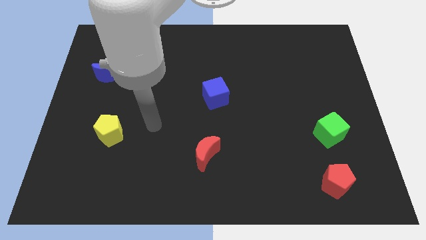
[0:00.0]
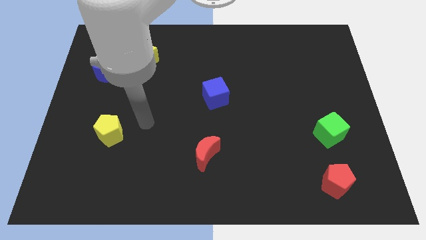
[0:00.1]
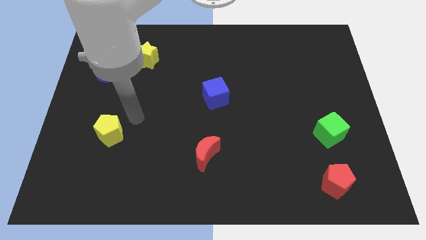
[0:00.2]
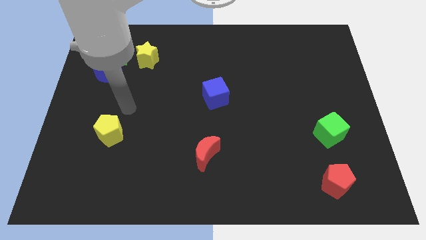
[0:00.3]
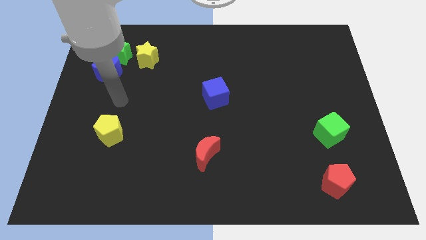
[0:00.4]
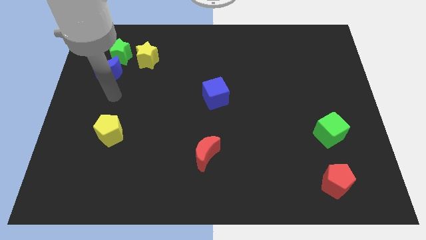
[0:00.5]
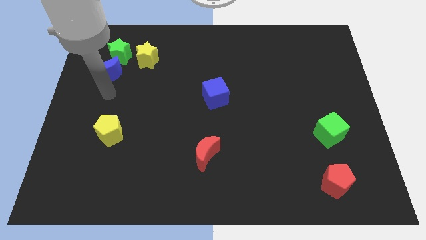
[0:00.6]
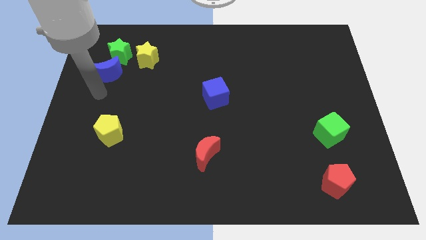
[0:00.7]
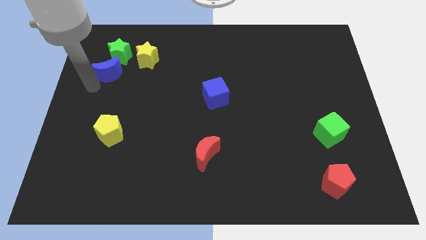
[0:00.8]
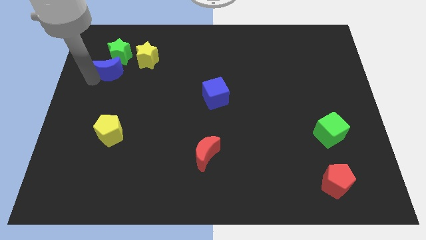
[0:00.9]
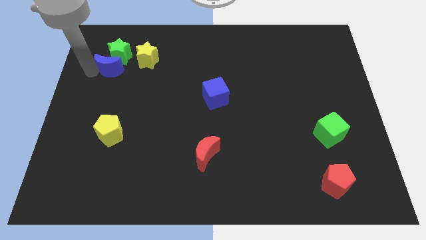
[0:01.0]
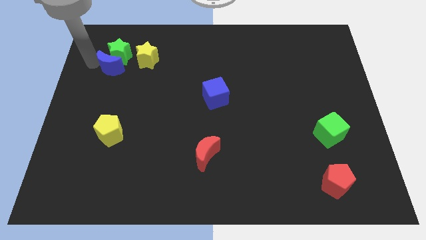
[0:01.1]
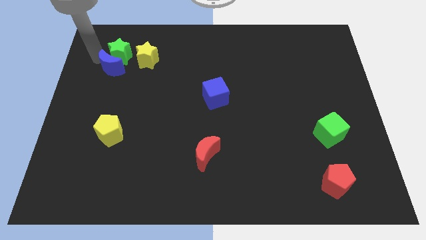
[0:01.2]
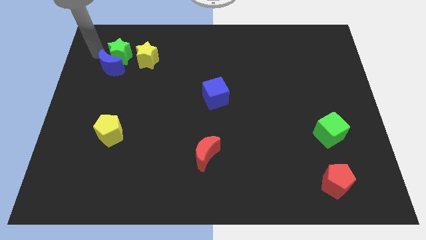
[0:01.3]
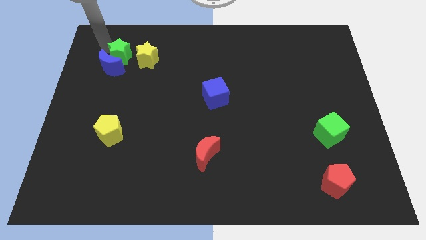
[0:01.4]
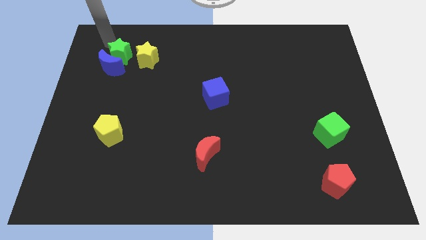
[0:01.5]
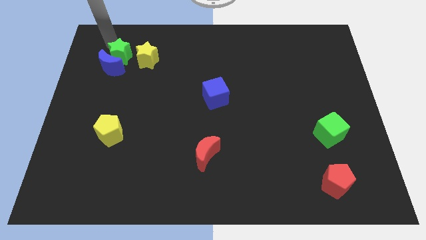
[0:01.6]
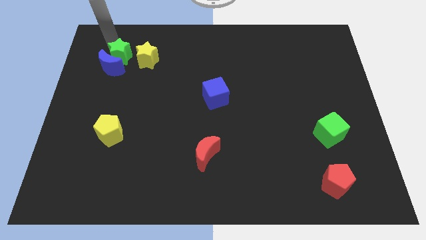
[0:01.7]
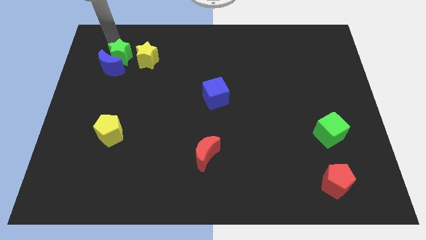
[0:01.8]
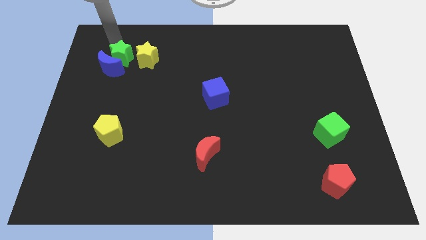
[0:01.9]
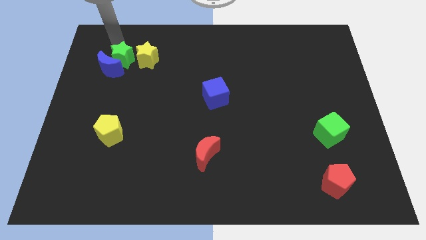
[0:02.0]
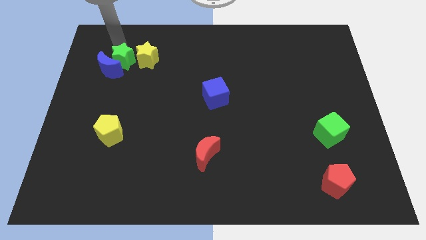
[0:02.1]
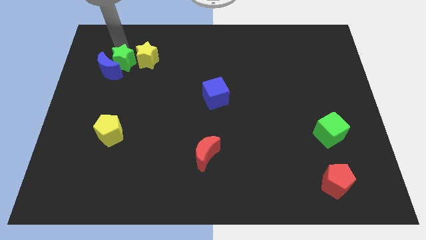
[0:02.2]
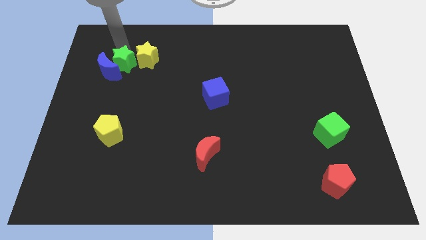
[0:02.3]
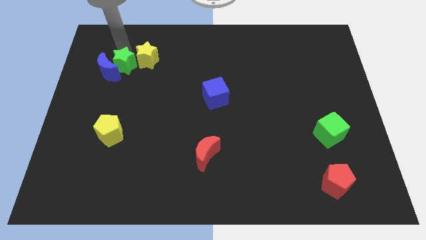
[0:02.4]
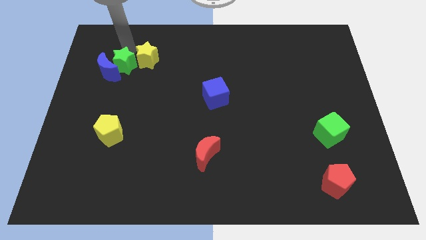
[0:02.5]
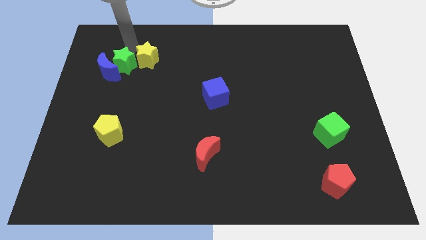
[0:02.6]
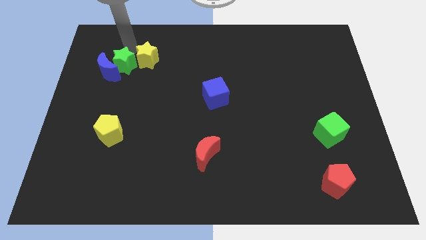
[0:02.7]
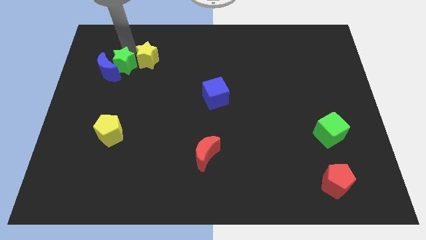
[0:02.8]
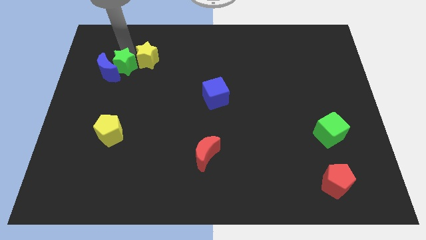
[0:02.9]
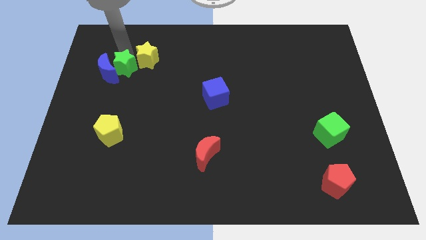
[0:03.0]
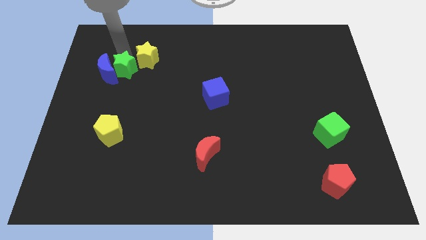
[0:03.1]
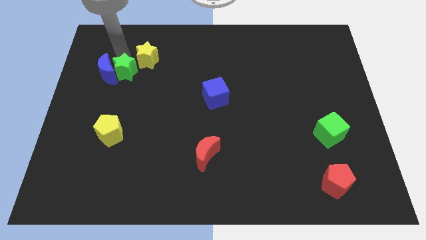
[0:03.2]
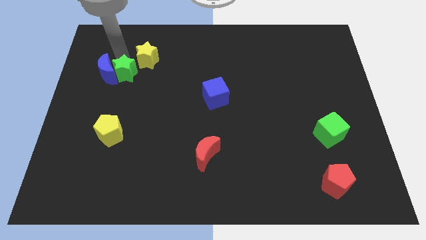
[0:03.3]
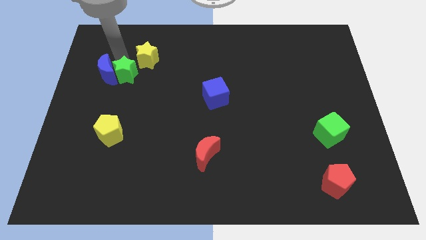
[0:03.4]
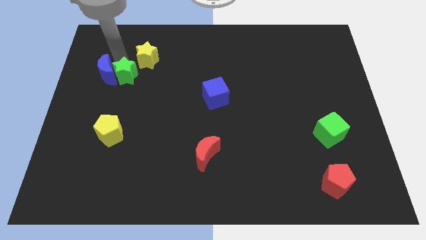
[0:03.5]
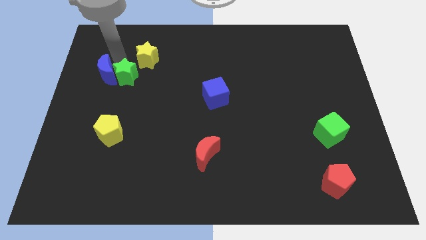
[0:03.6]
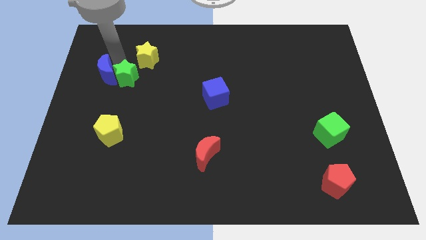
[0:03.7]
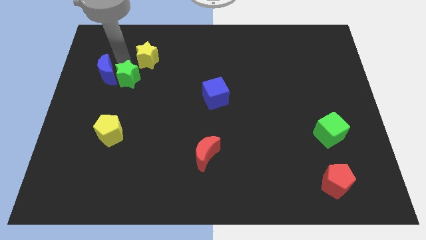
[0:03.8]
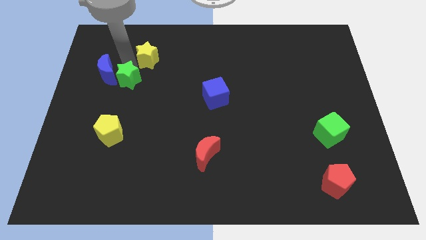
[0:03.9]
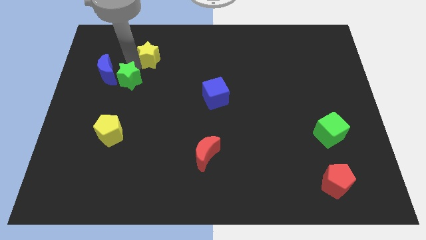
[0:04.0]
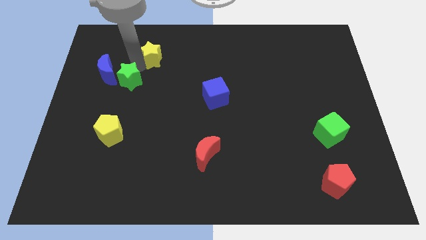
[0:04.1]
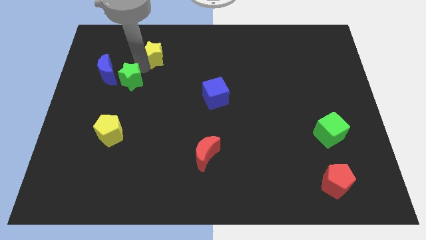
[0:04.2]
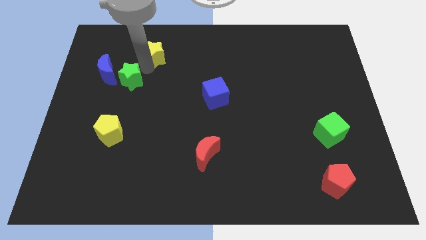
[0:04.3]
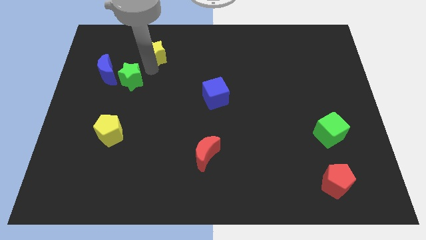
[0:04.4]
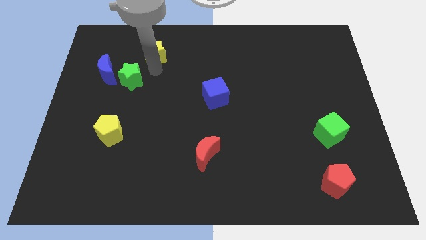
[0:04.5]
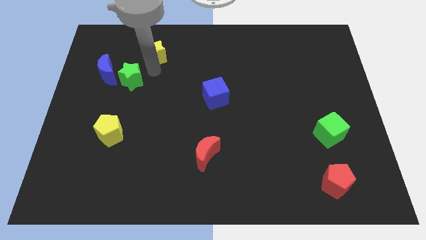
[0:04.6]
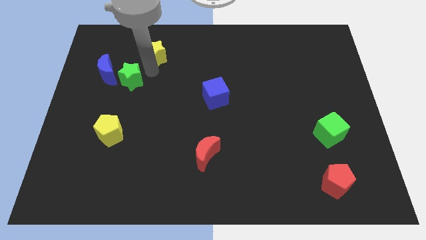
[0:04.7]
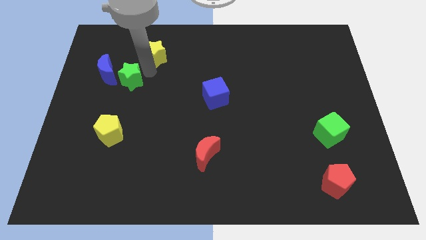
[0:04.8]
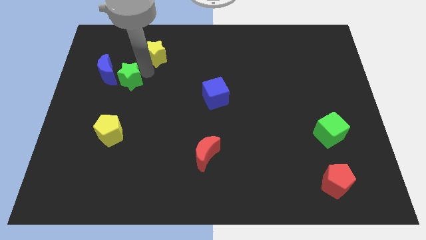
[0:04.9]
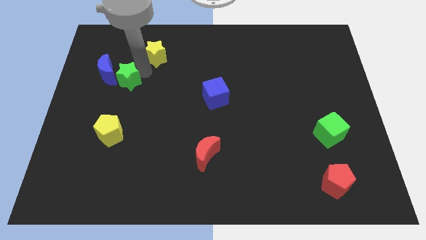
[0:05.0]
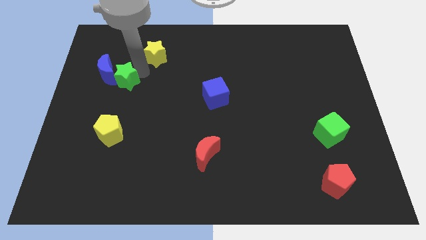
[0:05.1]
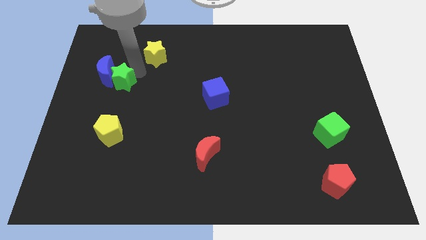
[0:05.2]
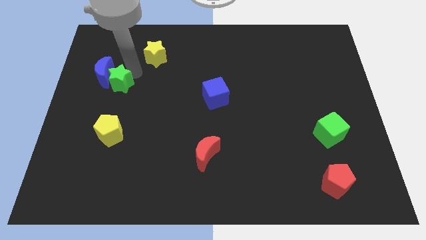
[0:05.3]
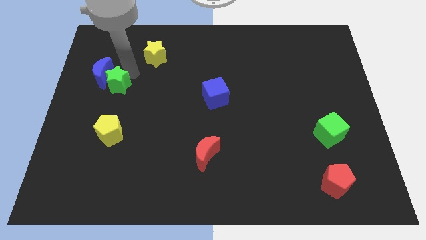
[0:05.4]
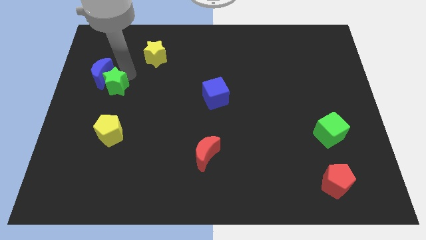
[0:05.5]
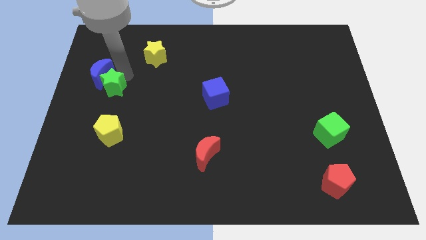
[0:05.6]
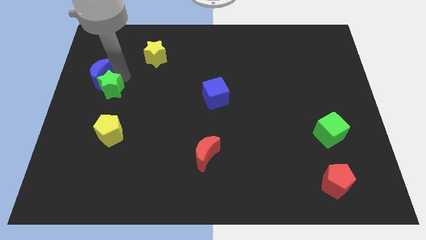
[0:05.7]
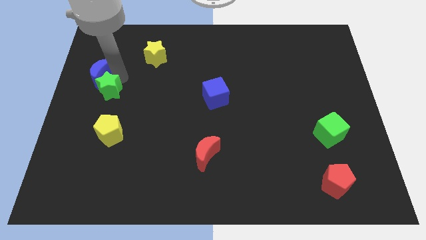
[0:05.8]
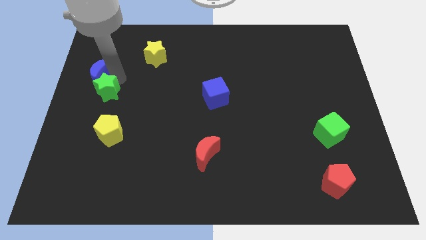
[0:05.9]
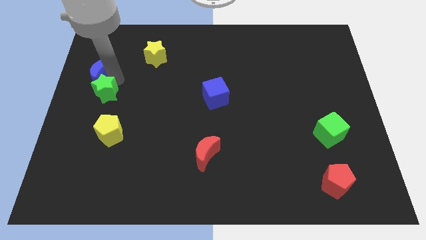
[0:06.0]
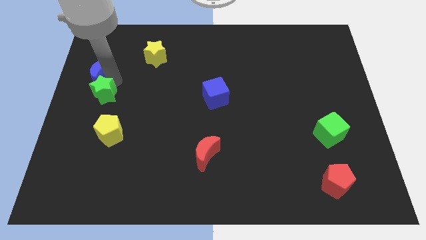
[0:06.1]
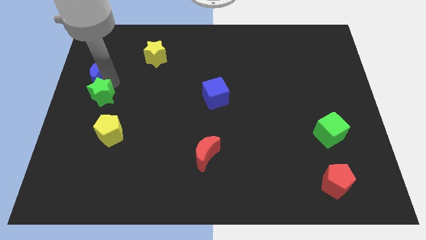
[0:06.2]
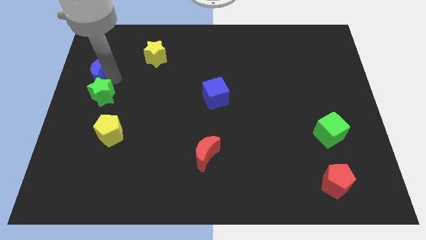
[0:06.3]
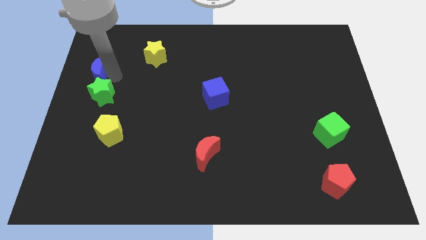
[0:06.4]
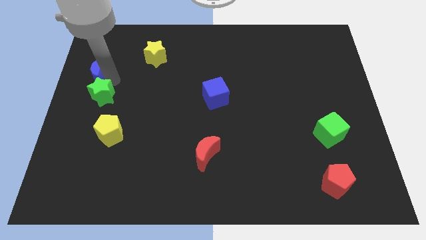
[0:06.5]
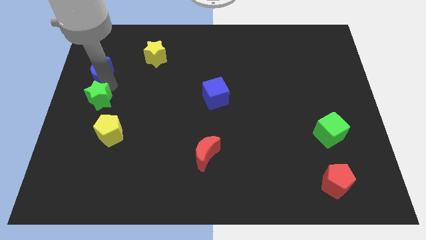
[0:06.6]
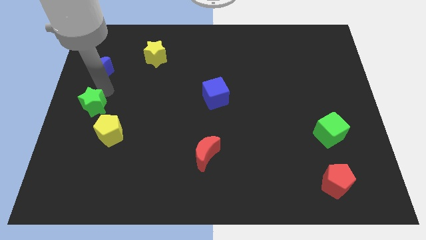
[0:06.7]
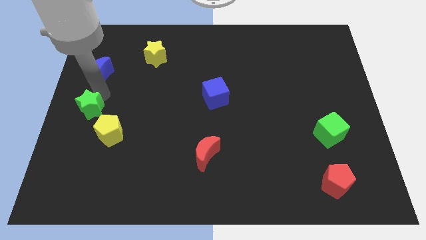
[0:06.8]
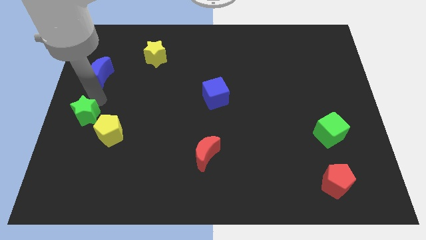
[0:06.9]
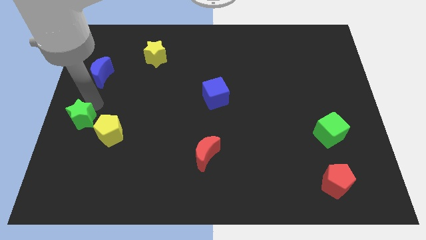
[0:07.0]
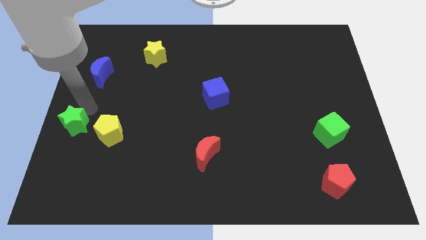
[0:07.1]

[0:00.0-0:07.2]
slide the green star downwards

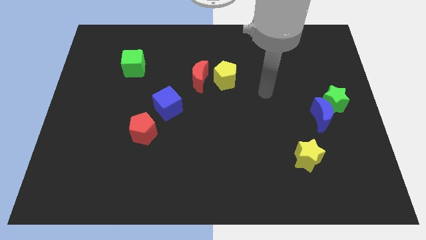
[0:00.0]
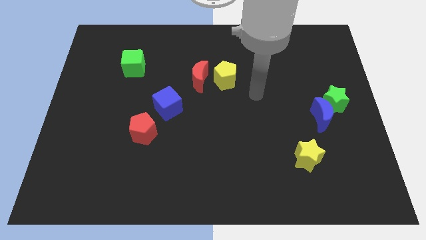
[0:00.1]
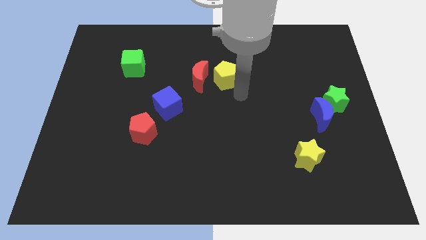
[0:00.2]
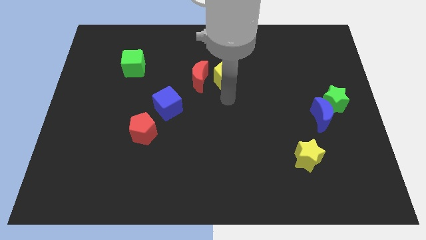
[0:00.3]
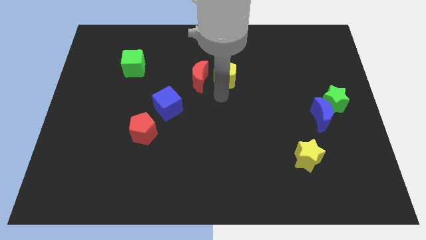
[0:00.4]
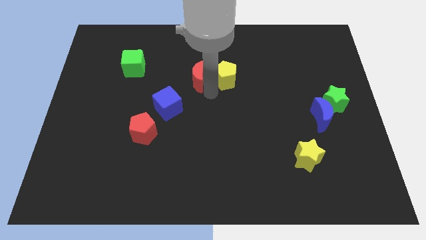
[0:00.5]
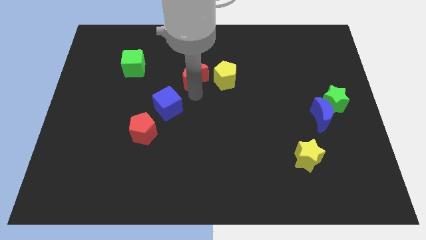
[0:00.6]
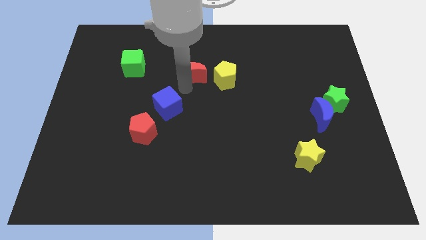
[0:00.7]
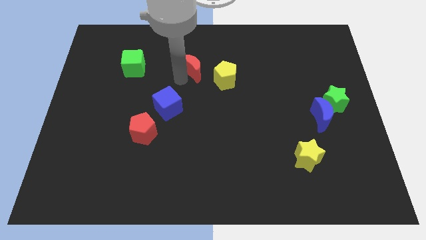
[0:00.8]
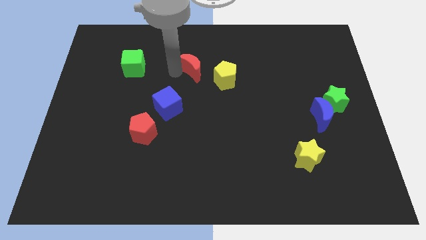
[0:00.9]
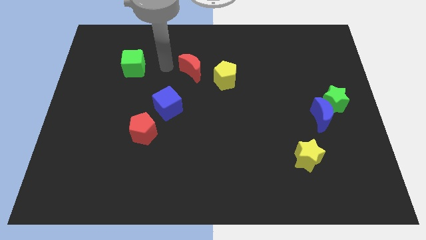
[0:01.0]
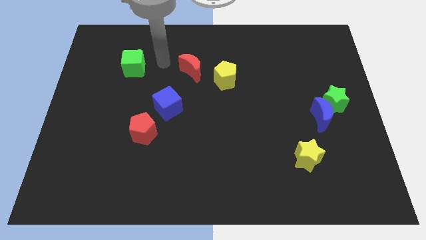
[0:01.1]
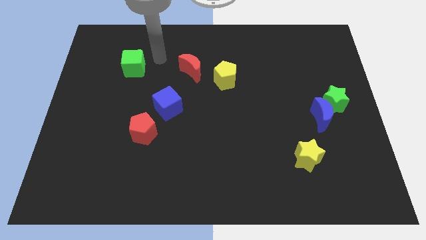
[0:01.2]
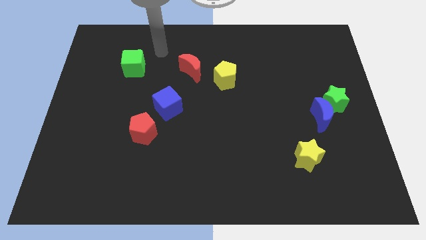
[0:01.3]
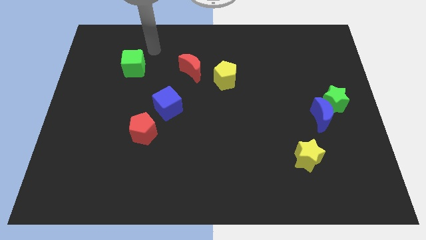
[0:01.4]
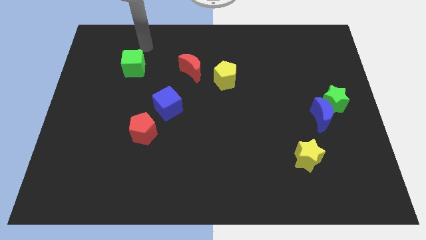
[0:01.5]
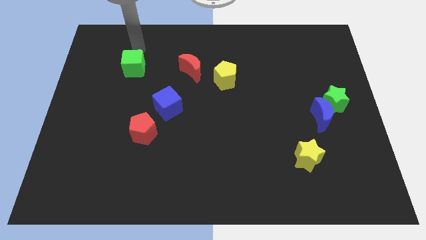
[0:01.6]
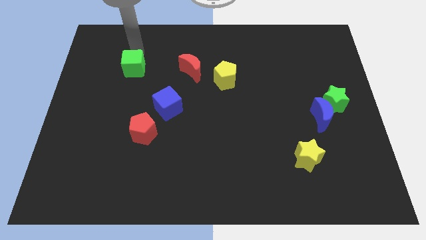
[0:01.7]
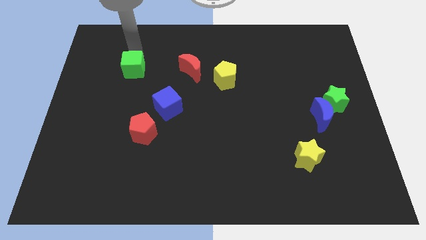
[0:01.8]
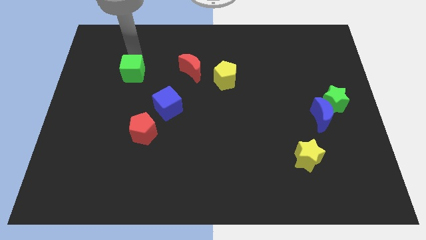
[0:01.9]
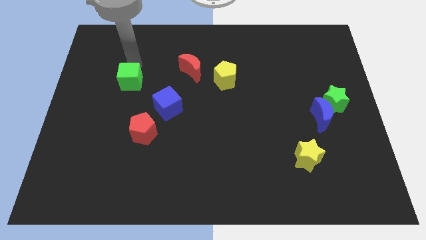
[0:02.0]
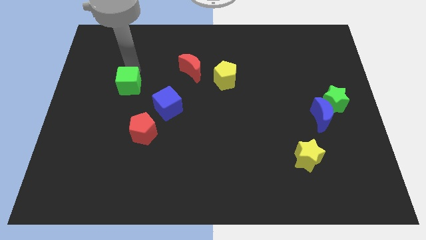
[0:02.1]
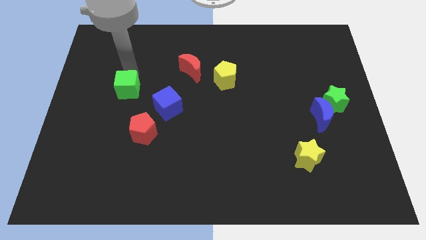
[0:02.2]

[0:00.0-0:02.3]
slide the green cube a bit down
